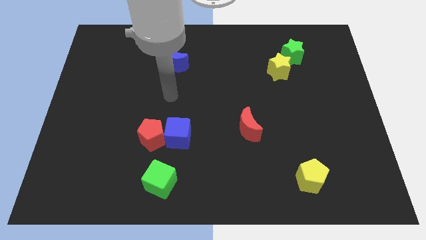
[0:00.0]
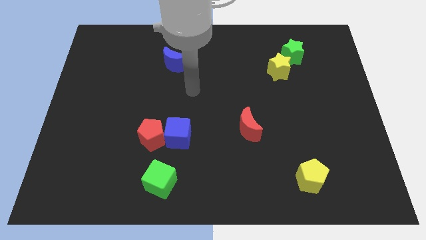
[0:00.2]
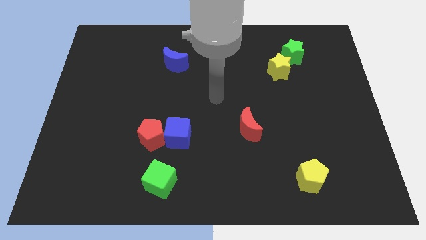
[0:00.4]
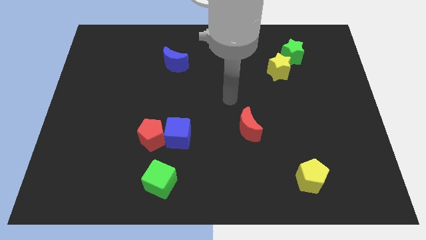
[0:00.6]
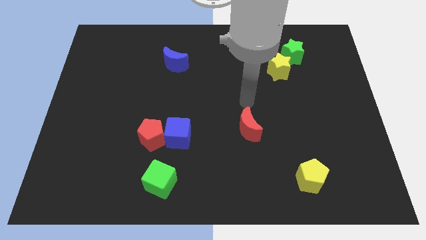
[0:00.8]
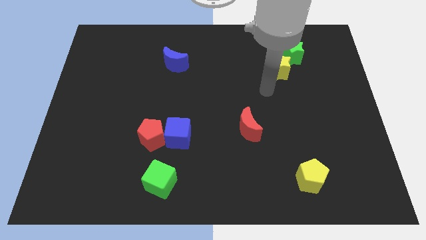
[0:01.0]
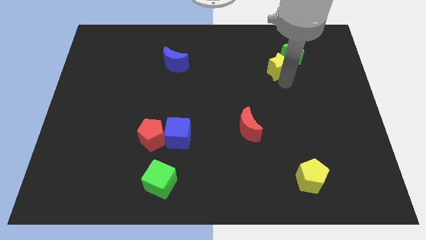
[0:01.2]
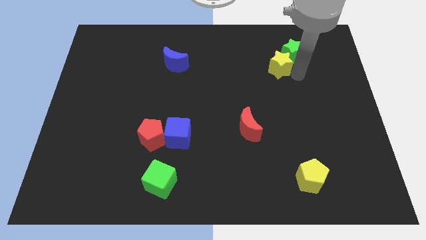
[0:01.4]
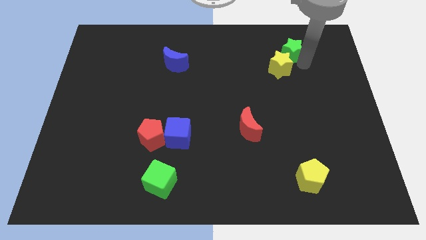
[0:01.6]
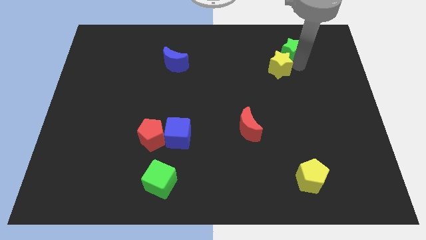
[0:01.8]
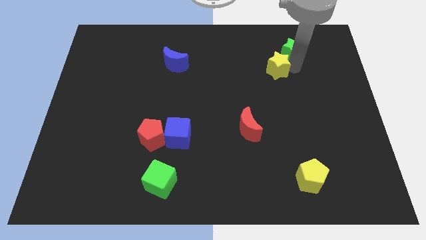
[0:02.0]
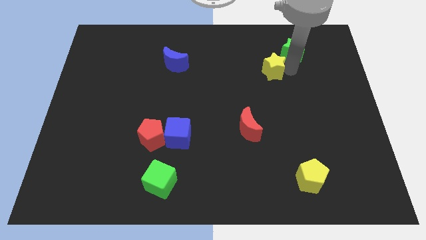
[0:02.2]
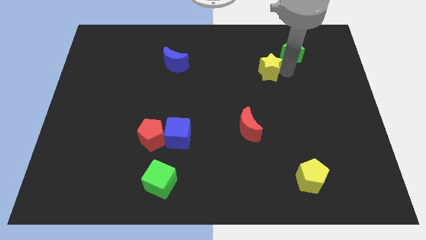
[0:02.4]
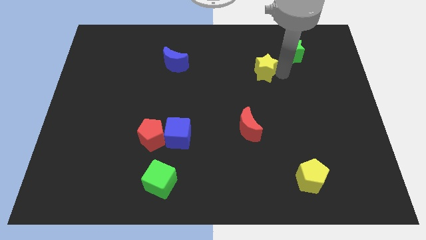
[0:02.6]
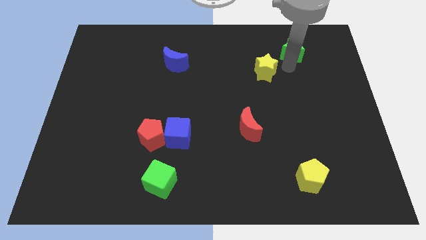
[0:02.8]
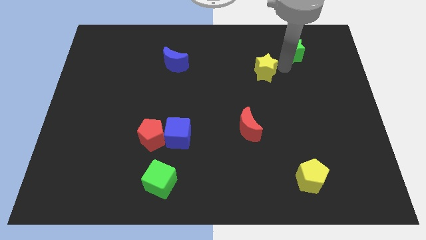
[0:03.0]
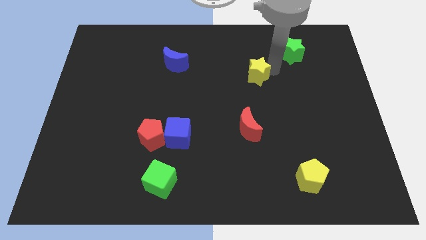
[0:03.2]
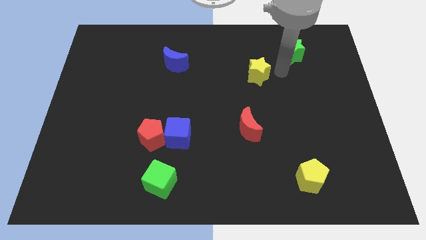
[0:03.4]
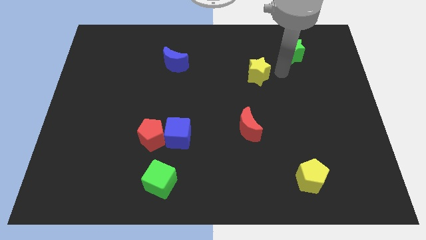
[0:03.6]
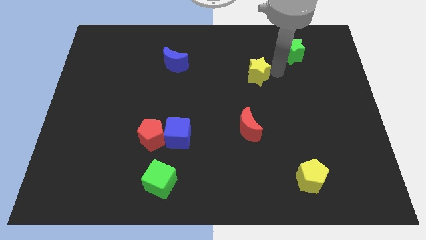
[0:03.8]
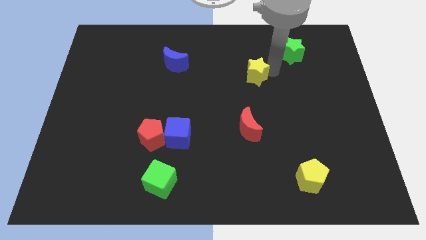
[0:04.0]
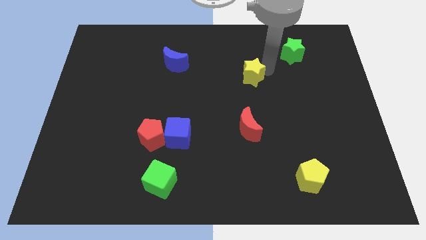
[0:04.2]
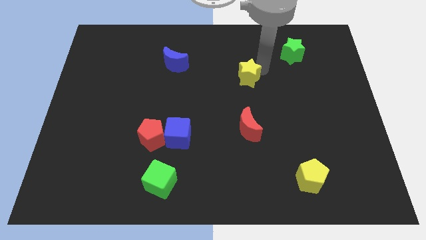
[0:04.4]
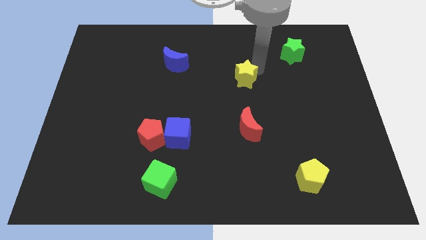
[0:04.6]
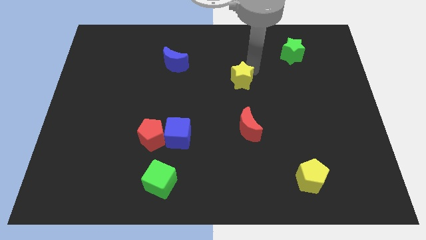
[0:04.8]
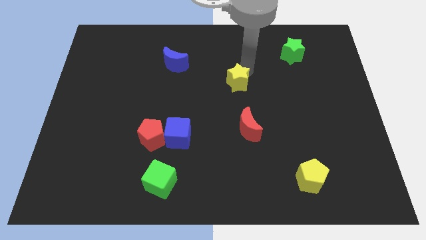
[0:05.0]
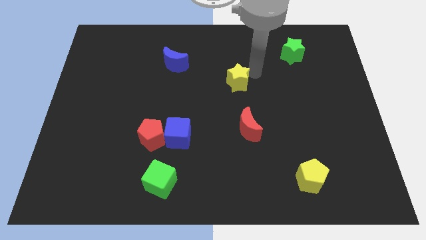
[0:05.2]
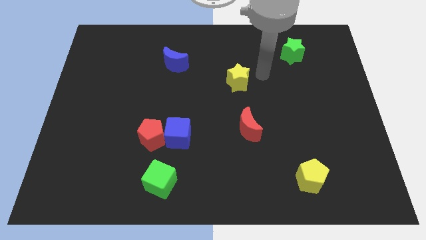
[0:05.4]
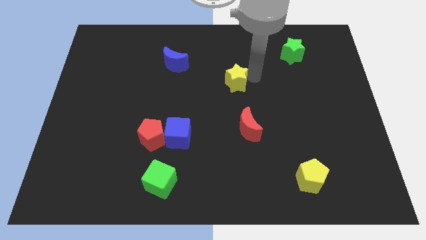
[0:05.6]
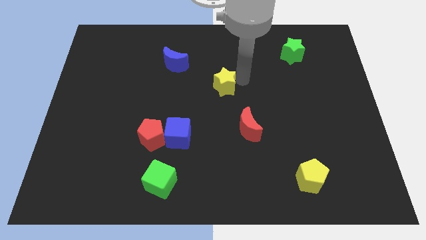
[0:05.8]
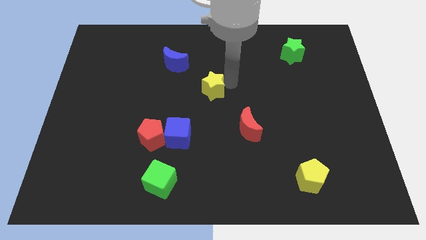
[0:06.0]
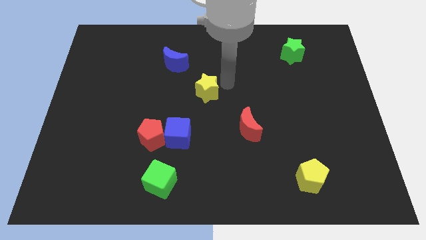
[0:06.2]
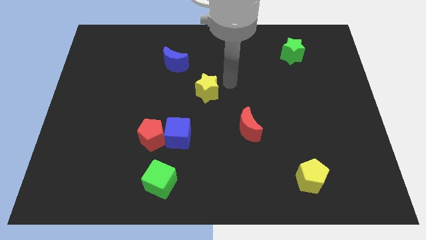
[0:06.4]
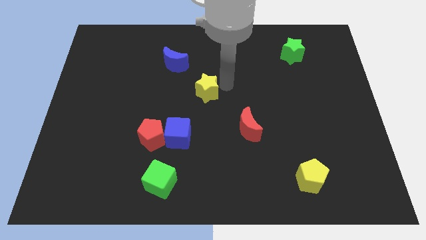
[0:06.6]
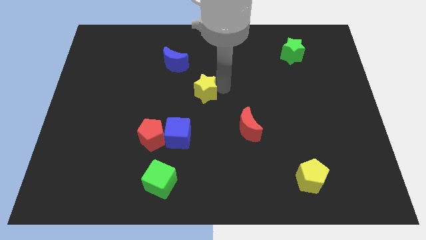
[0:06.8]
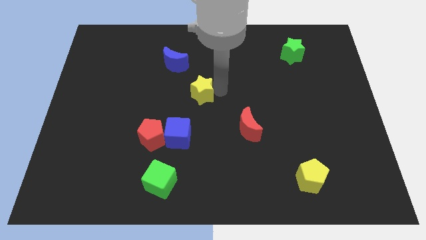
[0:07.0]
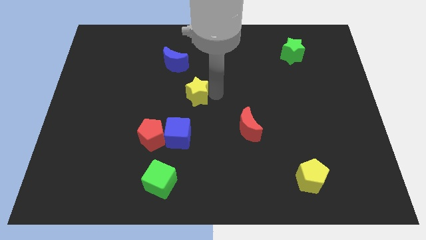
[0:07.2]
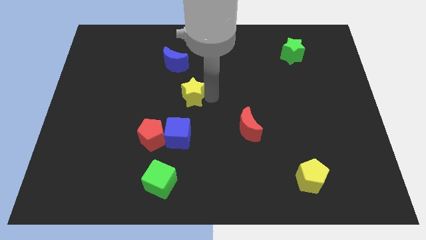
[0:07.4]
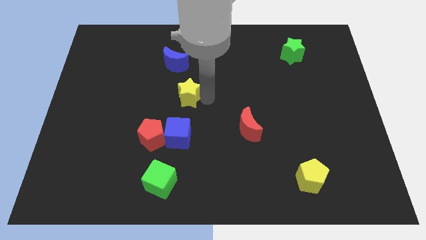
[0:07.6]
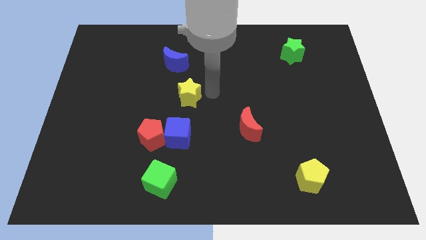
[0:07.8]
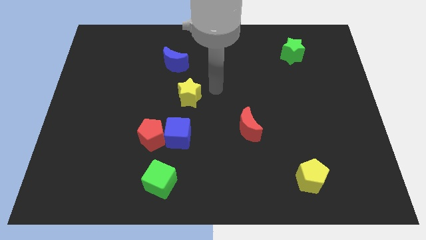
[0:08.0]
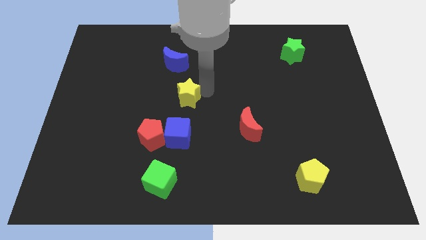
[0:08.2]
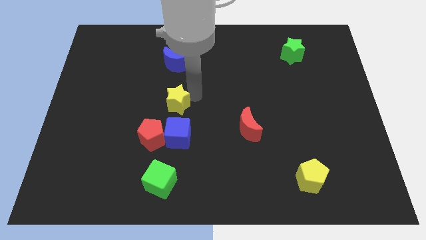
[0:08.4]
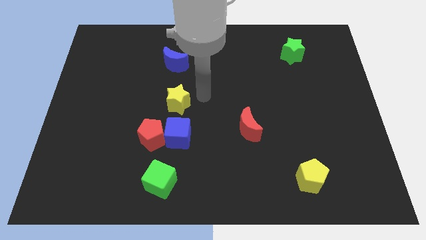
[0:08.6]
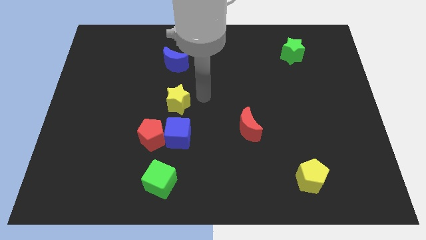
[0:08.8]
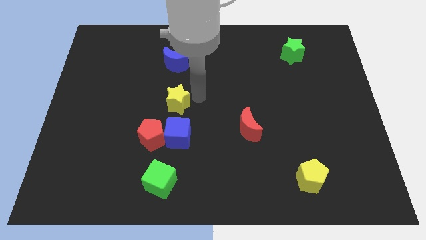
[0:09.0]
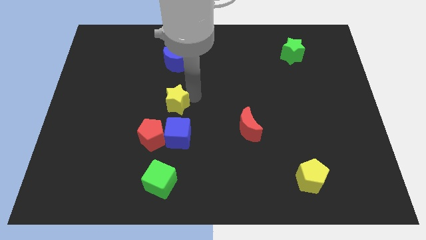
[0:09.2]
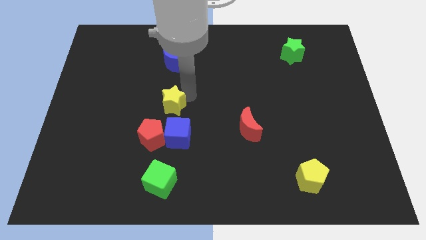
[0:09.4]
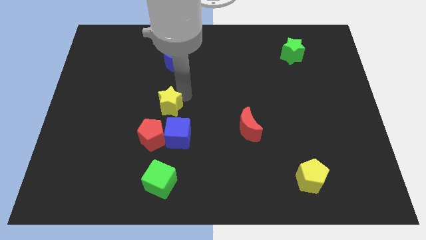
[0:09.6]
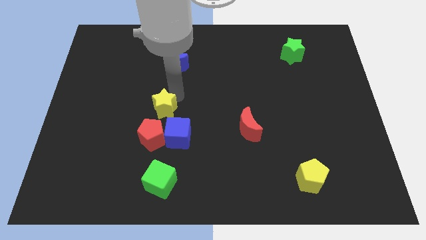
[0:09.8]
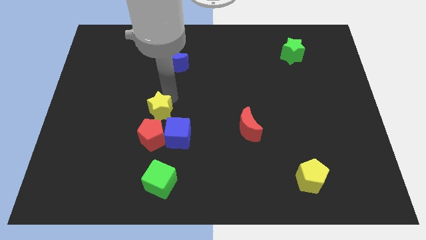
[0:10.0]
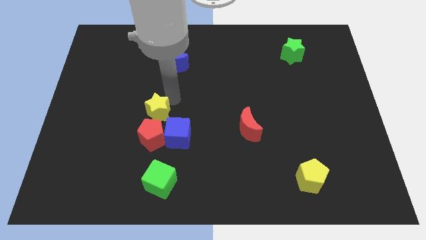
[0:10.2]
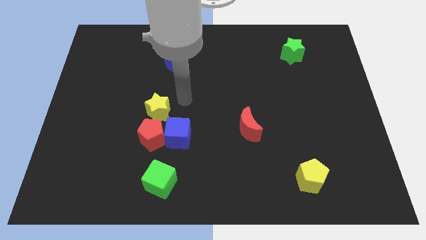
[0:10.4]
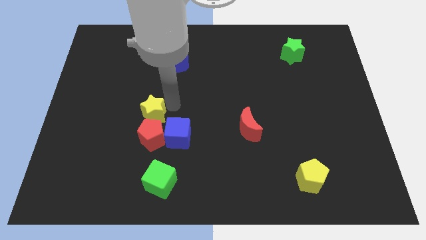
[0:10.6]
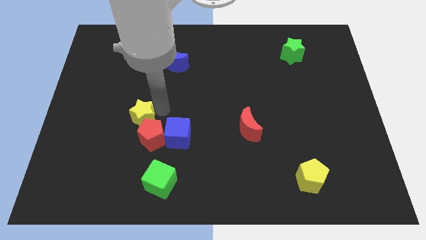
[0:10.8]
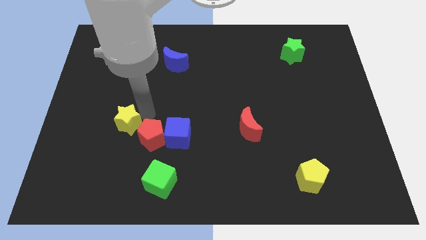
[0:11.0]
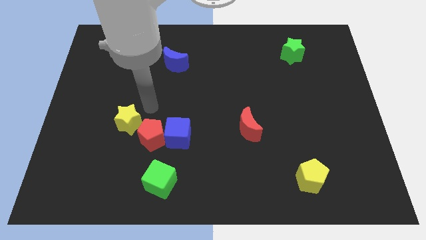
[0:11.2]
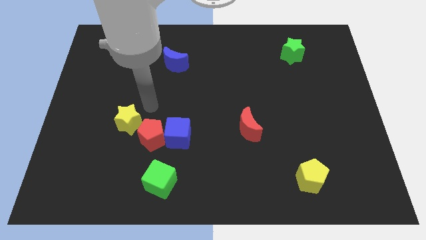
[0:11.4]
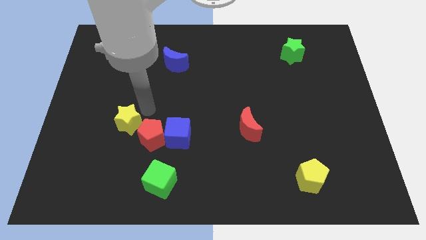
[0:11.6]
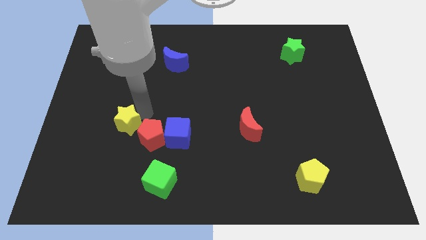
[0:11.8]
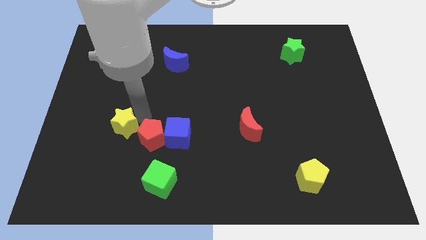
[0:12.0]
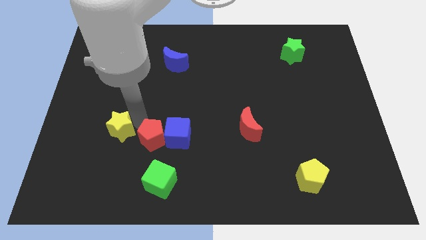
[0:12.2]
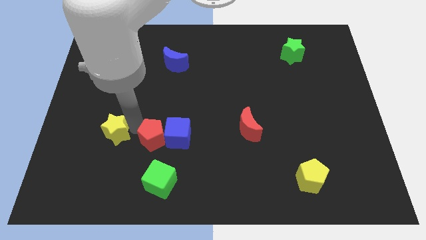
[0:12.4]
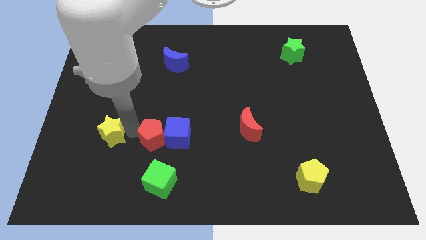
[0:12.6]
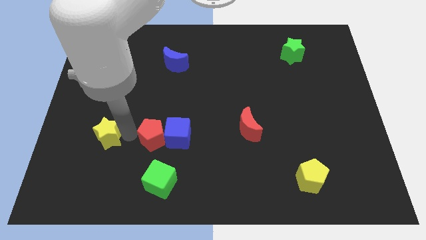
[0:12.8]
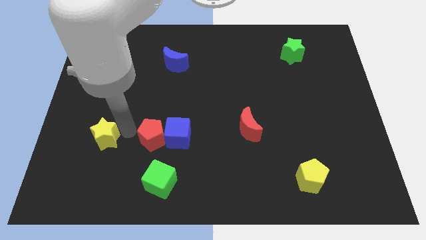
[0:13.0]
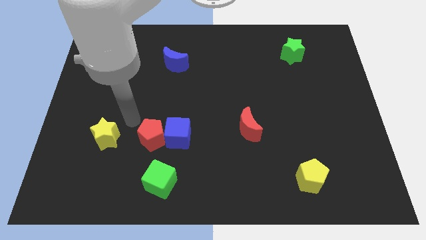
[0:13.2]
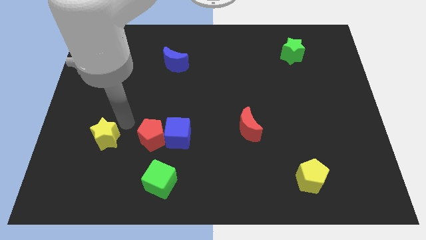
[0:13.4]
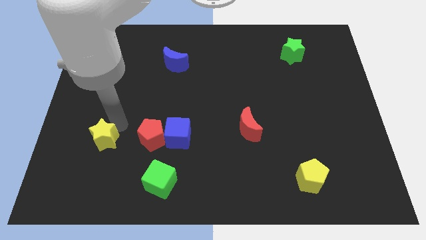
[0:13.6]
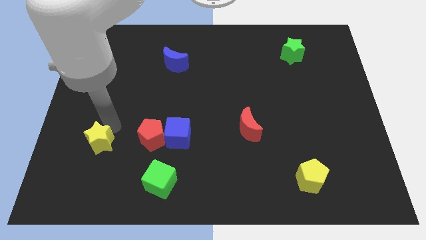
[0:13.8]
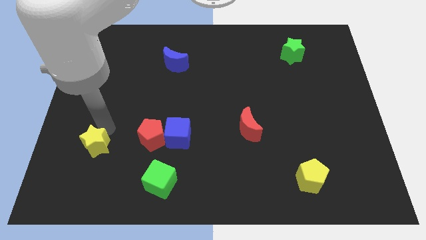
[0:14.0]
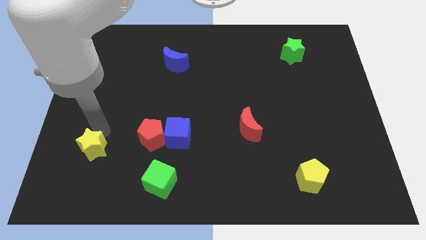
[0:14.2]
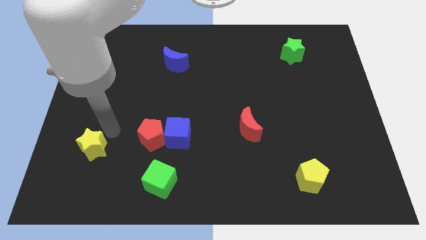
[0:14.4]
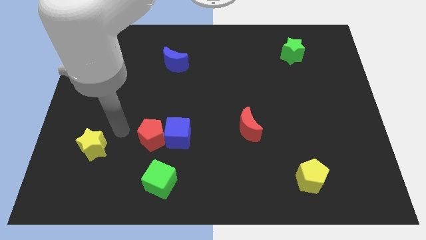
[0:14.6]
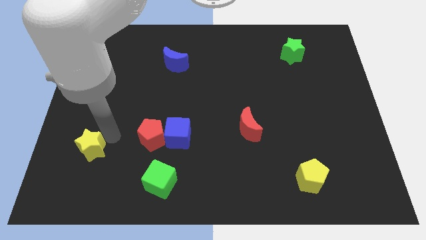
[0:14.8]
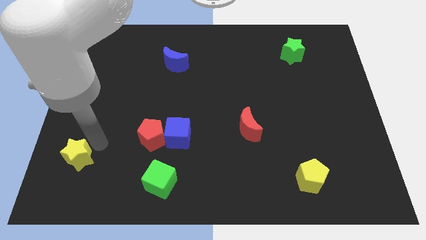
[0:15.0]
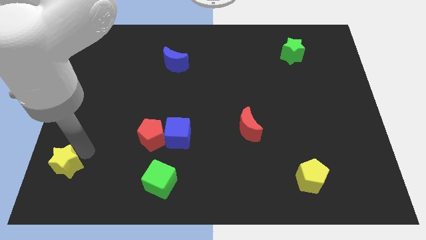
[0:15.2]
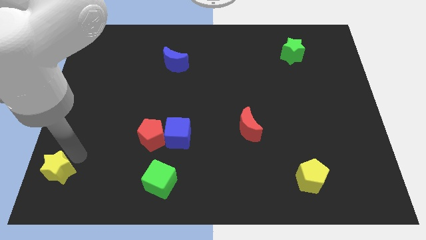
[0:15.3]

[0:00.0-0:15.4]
push the yellow star to the bottom left of the board
